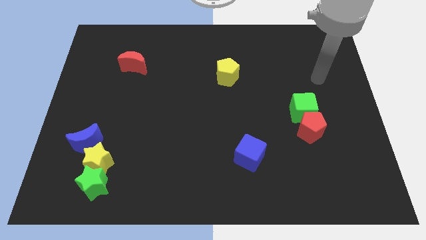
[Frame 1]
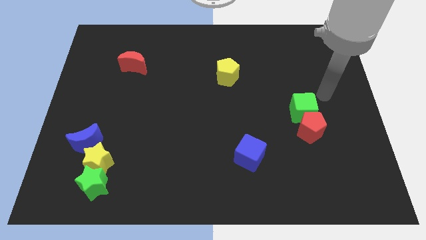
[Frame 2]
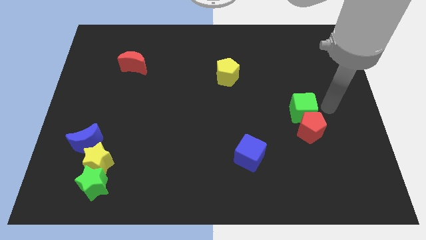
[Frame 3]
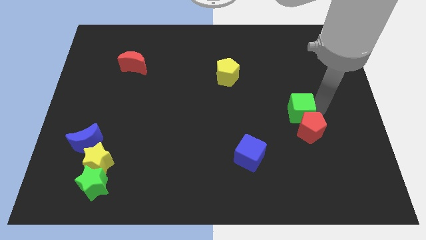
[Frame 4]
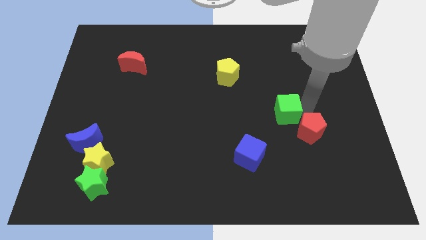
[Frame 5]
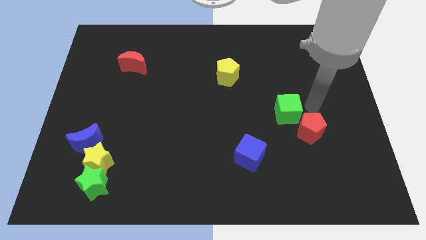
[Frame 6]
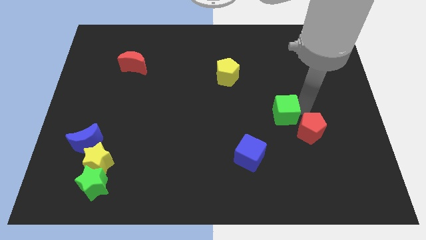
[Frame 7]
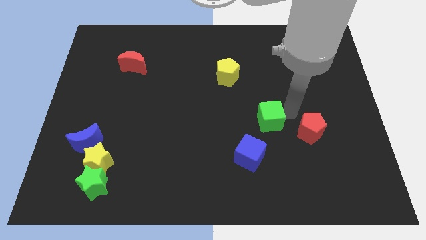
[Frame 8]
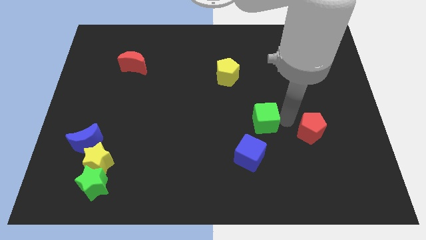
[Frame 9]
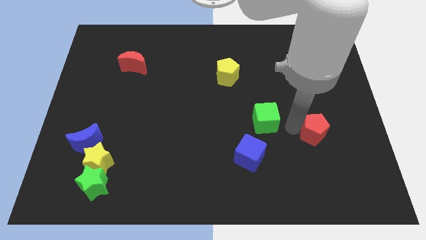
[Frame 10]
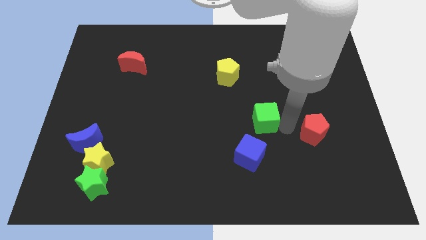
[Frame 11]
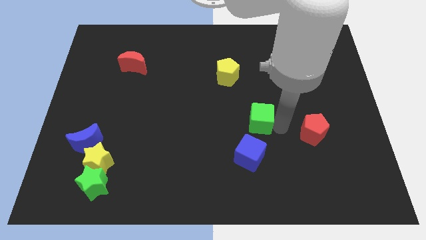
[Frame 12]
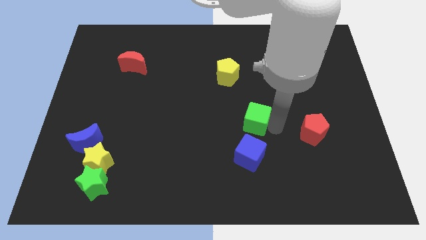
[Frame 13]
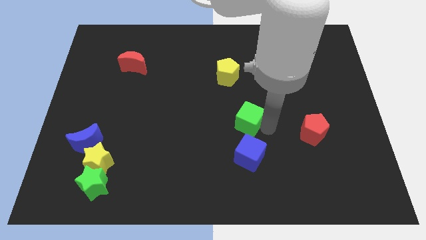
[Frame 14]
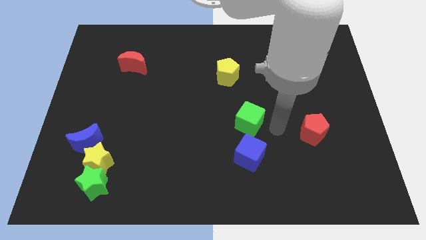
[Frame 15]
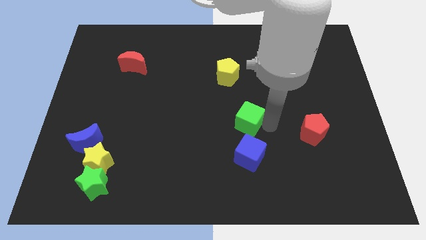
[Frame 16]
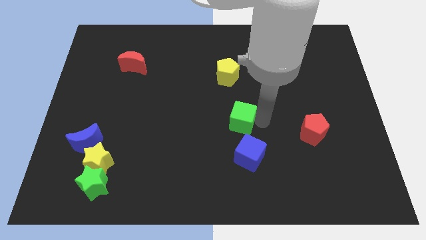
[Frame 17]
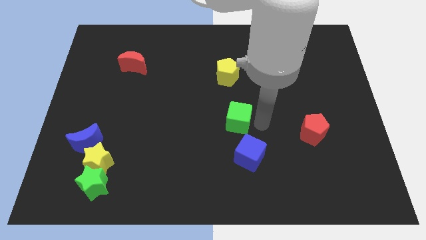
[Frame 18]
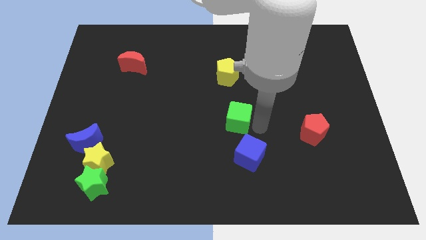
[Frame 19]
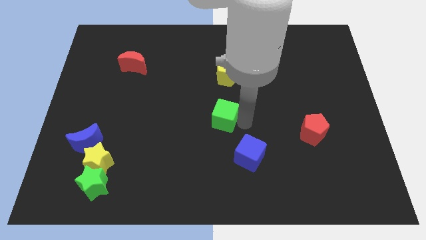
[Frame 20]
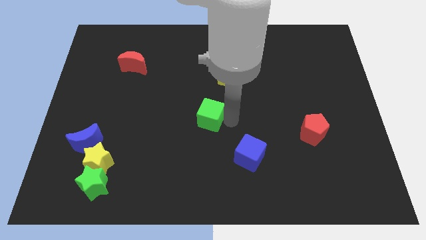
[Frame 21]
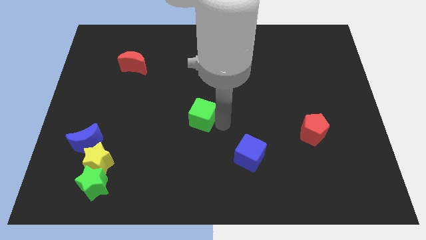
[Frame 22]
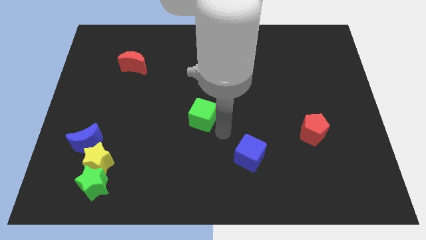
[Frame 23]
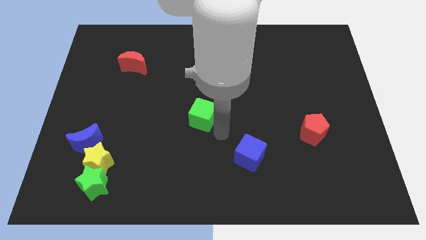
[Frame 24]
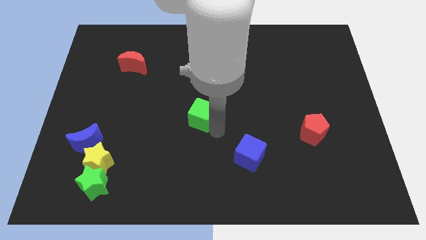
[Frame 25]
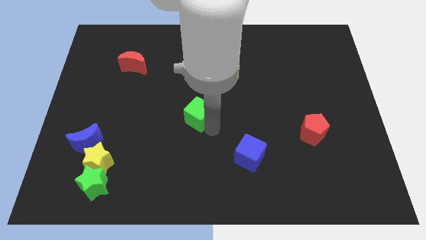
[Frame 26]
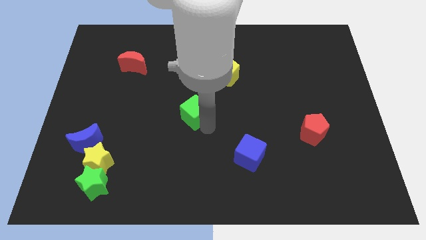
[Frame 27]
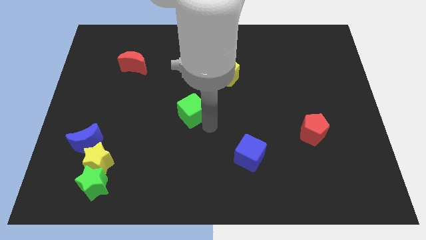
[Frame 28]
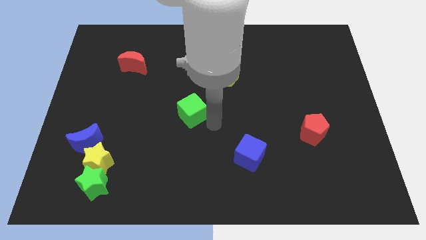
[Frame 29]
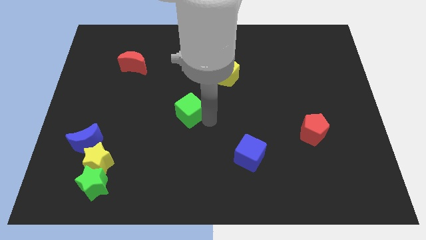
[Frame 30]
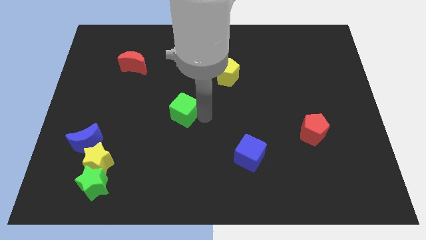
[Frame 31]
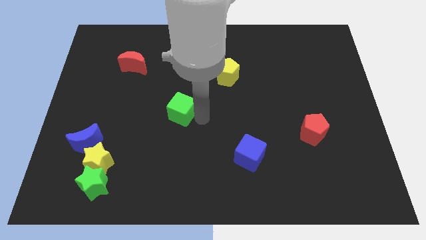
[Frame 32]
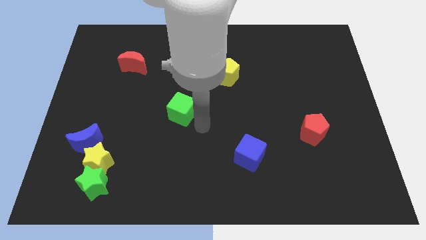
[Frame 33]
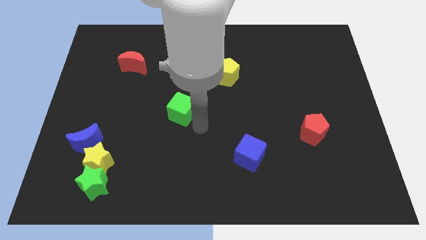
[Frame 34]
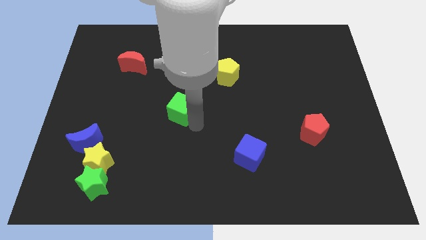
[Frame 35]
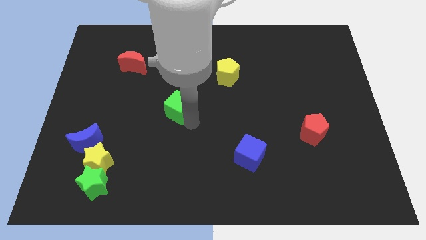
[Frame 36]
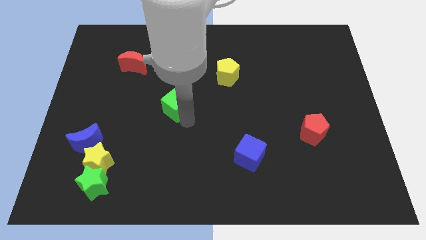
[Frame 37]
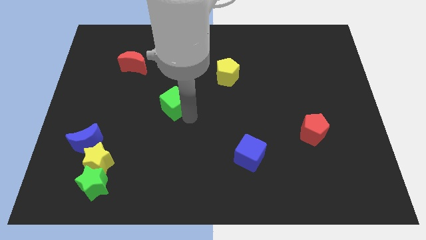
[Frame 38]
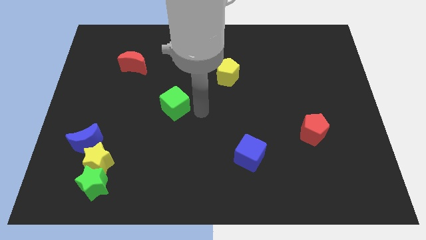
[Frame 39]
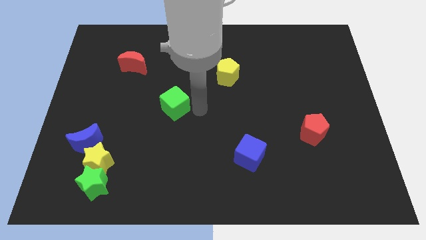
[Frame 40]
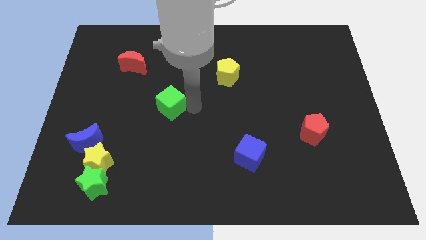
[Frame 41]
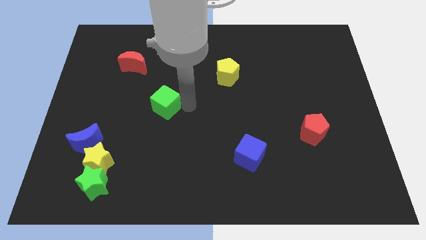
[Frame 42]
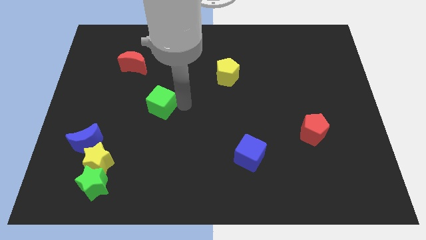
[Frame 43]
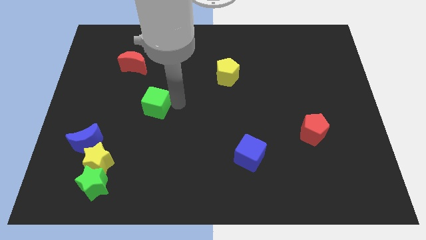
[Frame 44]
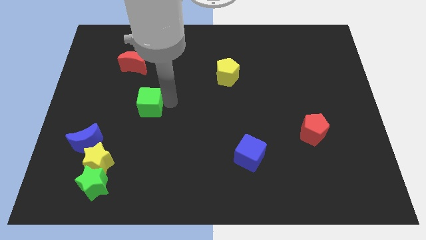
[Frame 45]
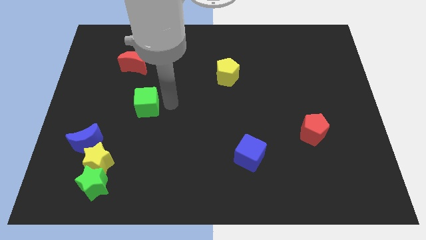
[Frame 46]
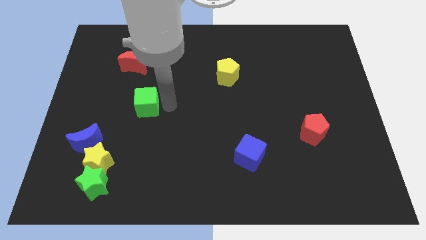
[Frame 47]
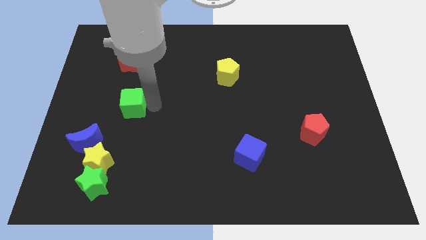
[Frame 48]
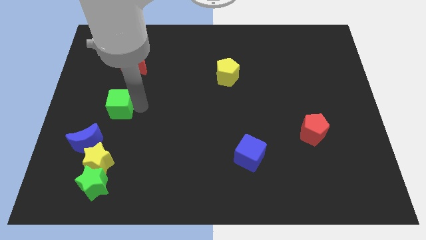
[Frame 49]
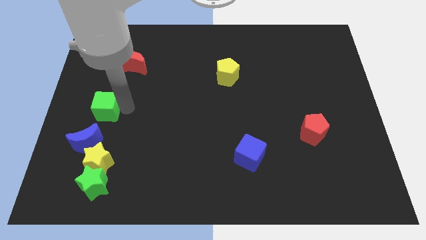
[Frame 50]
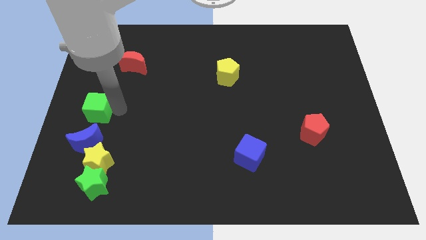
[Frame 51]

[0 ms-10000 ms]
put the green cube to the center left

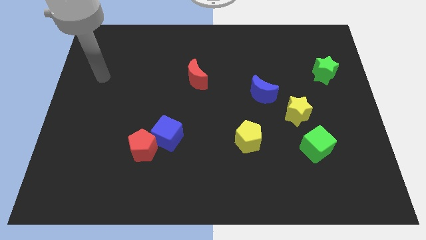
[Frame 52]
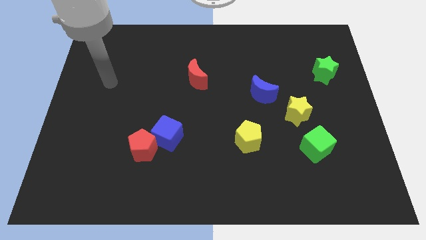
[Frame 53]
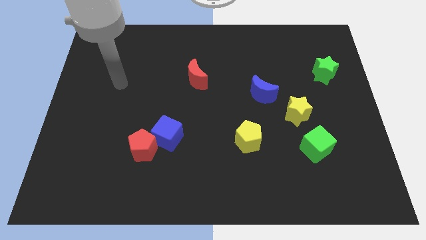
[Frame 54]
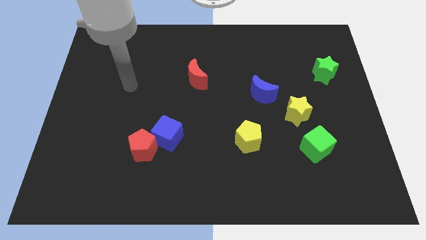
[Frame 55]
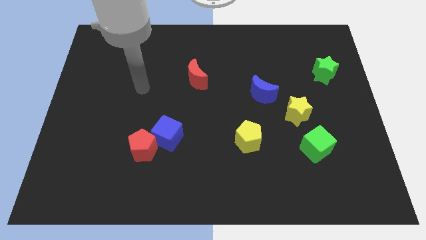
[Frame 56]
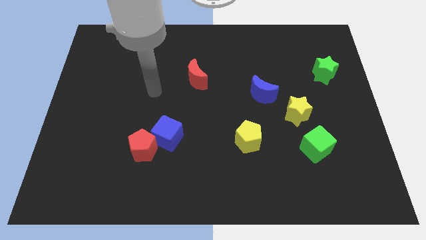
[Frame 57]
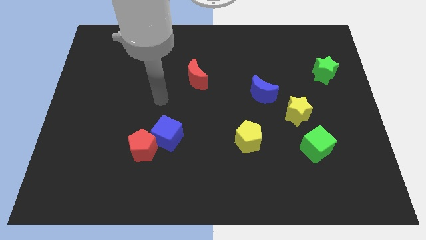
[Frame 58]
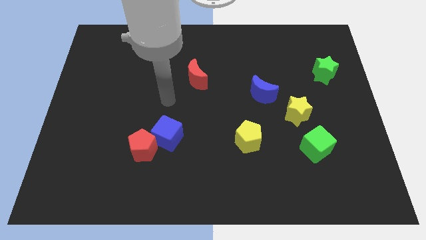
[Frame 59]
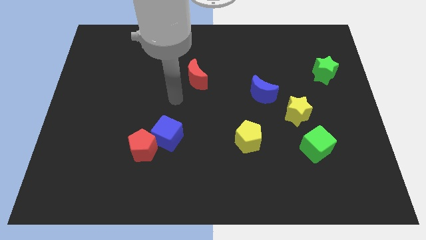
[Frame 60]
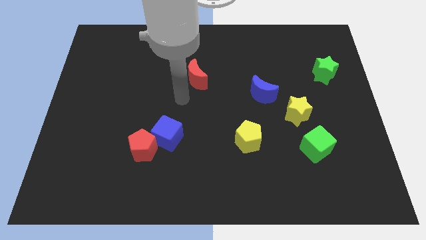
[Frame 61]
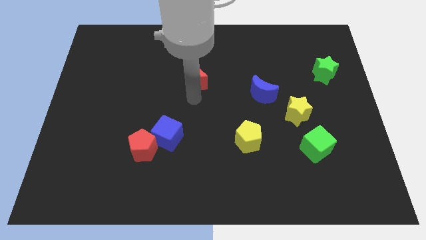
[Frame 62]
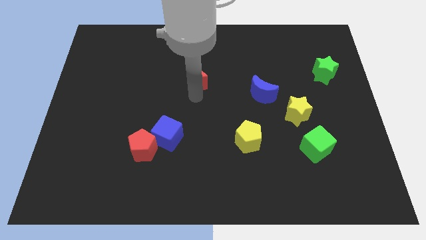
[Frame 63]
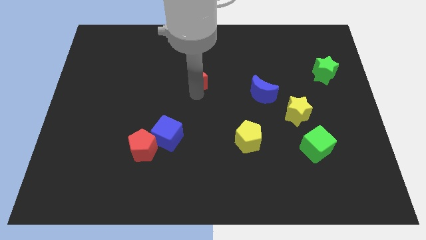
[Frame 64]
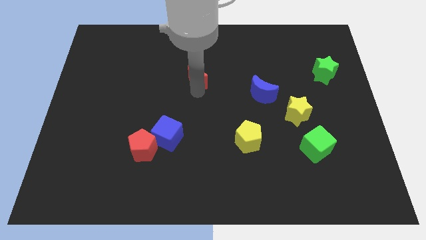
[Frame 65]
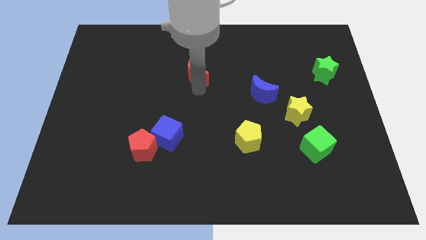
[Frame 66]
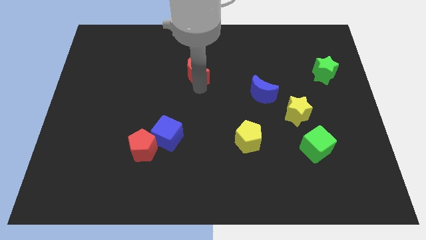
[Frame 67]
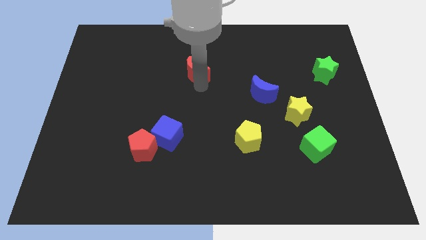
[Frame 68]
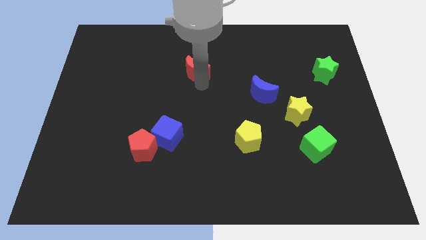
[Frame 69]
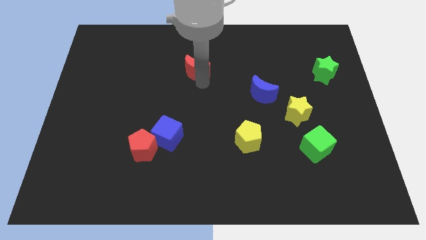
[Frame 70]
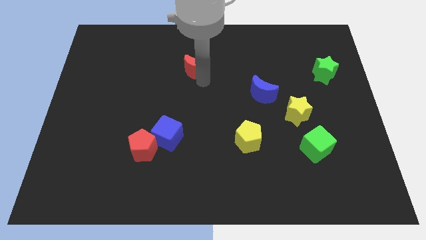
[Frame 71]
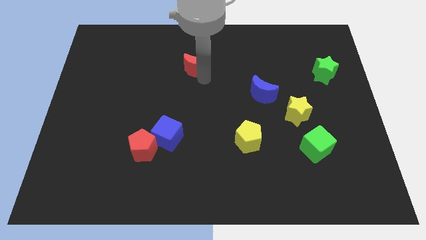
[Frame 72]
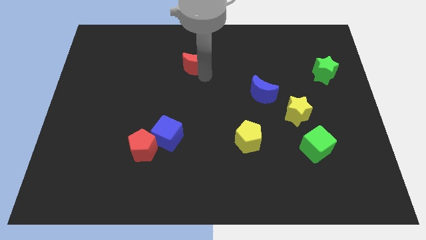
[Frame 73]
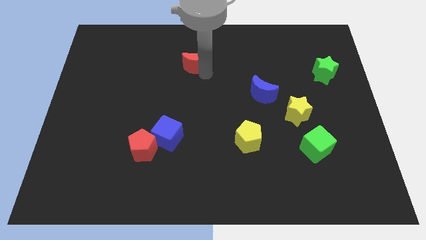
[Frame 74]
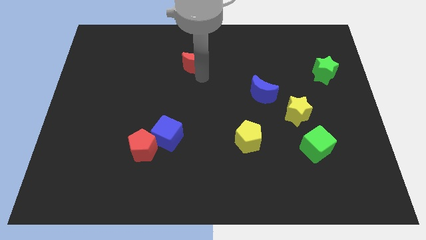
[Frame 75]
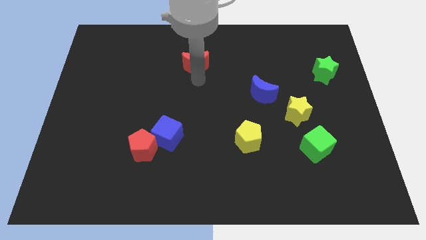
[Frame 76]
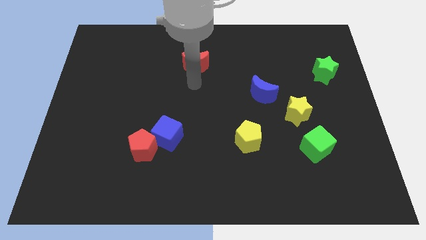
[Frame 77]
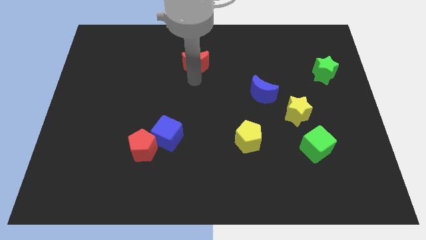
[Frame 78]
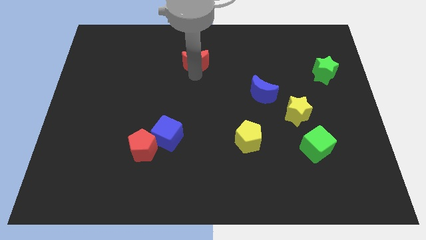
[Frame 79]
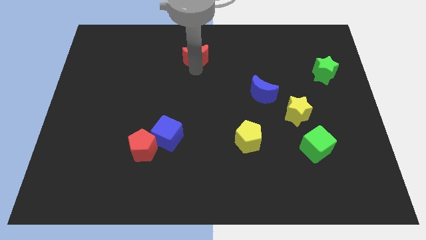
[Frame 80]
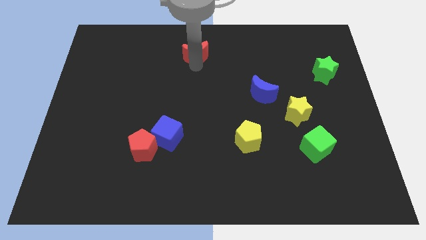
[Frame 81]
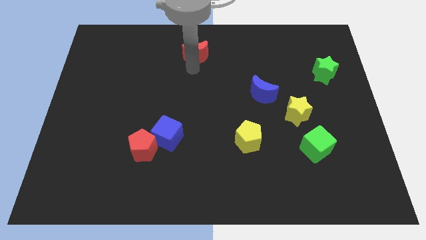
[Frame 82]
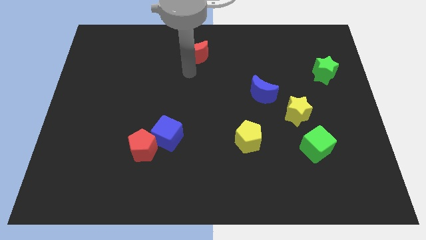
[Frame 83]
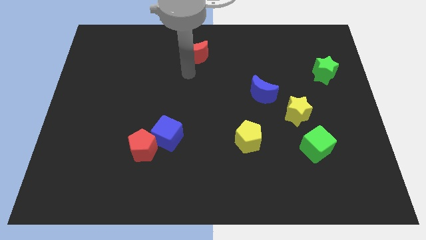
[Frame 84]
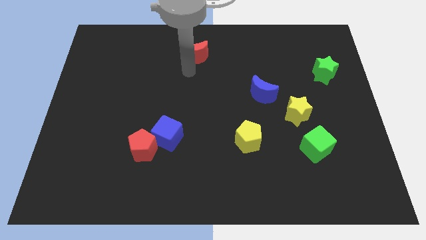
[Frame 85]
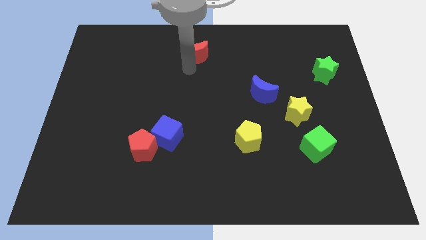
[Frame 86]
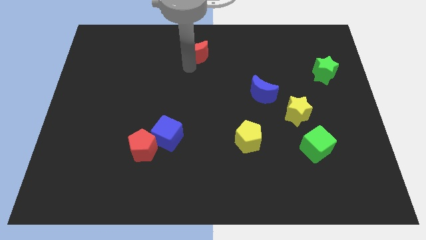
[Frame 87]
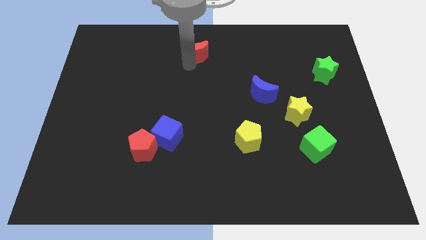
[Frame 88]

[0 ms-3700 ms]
slide the red moon to the top
